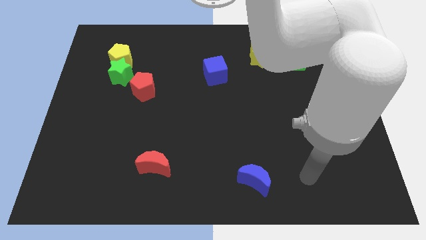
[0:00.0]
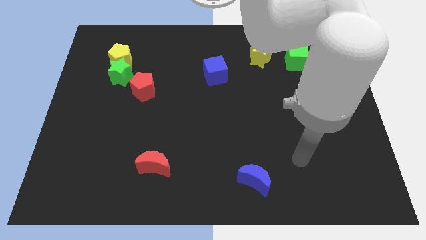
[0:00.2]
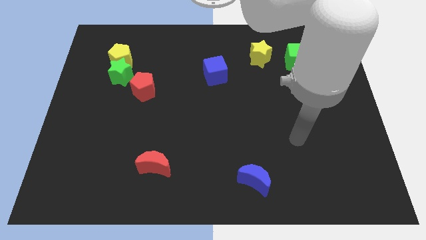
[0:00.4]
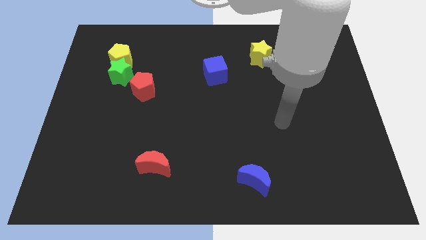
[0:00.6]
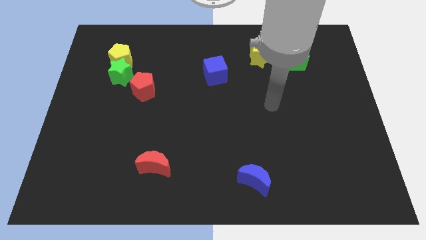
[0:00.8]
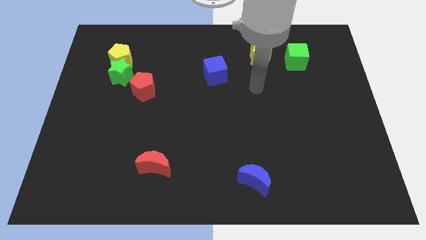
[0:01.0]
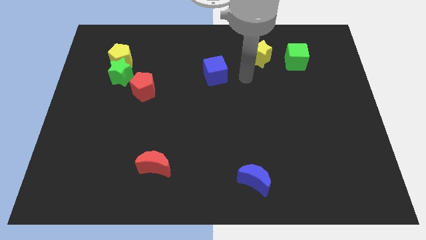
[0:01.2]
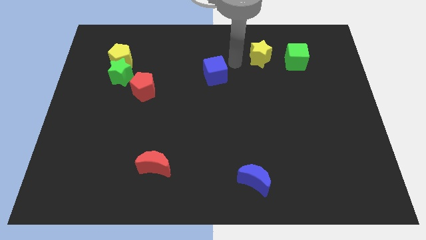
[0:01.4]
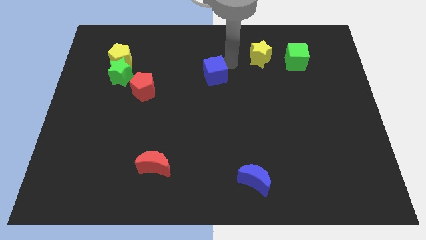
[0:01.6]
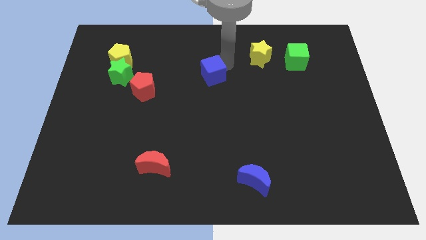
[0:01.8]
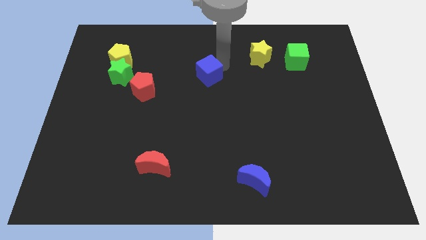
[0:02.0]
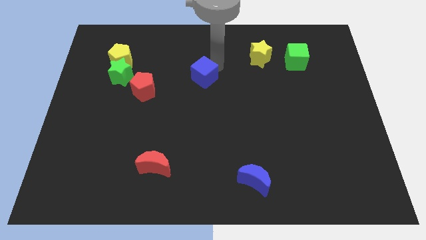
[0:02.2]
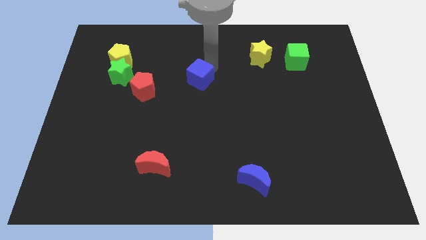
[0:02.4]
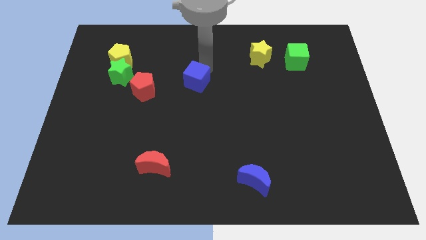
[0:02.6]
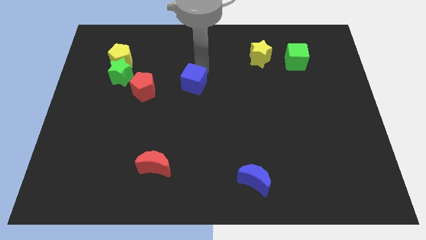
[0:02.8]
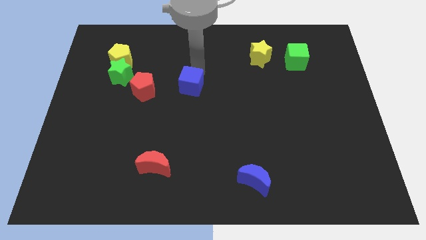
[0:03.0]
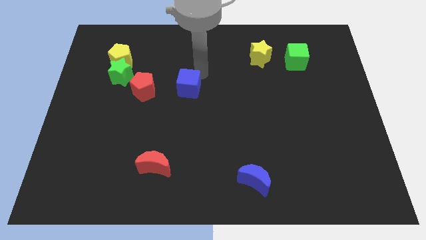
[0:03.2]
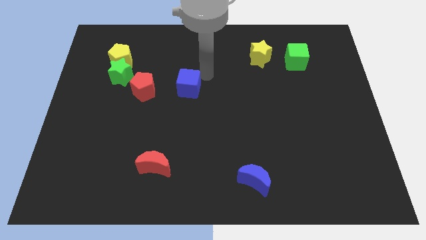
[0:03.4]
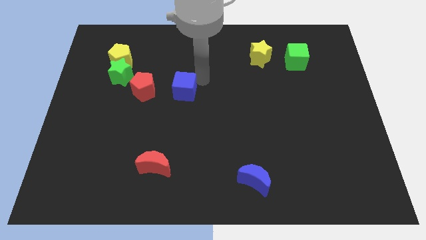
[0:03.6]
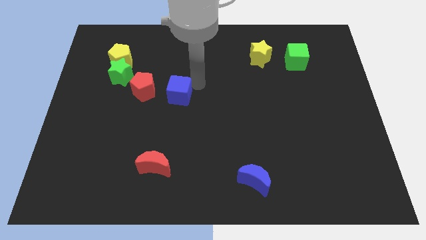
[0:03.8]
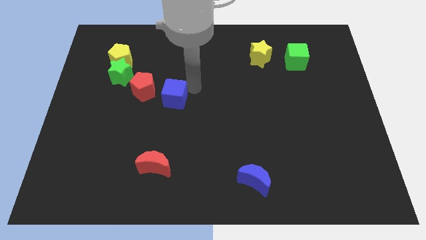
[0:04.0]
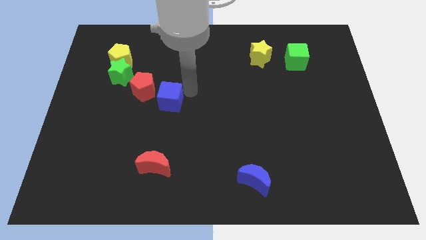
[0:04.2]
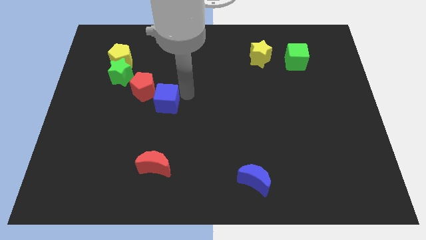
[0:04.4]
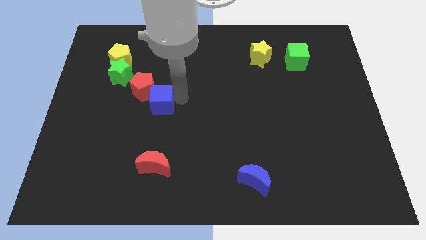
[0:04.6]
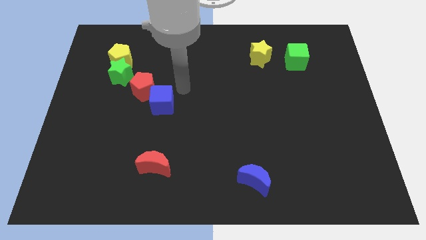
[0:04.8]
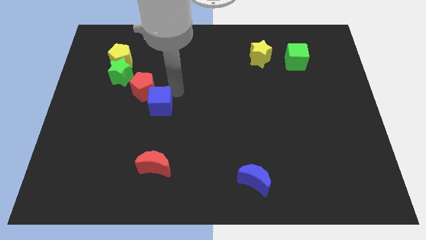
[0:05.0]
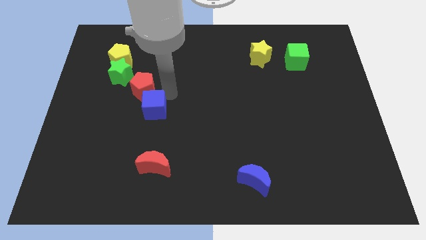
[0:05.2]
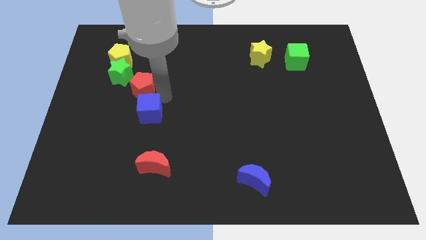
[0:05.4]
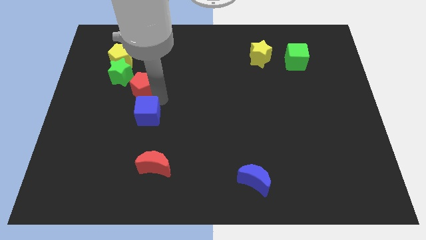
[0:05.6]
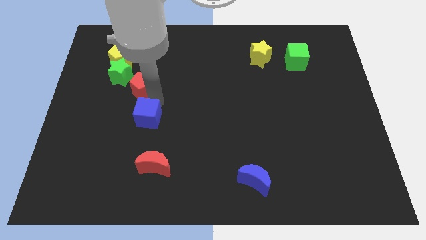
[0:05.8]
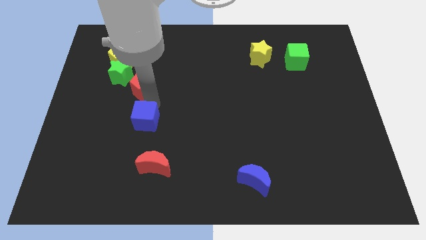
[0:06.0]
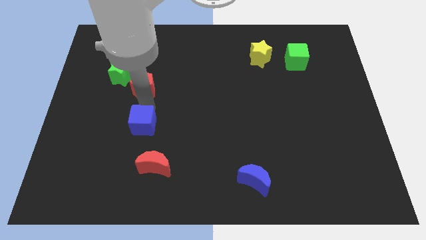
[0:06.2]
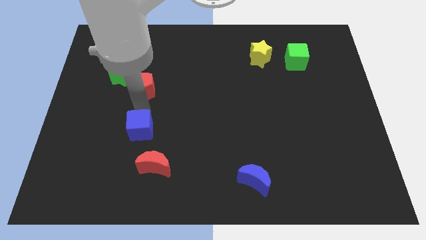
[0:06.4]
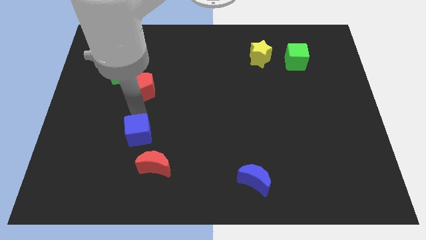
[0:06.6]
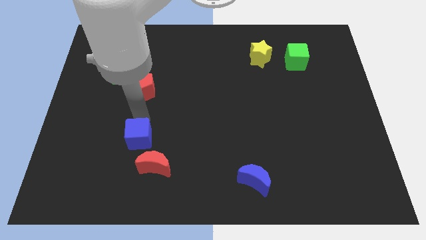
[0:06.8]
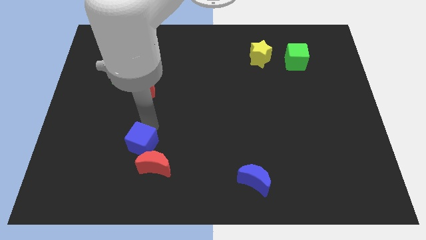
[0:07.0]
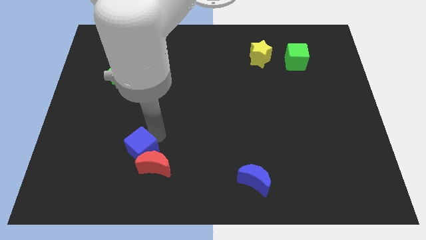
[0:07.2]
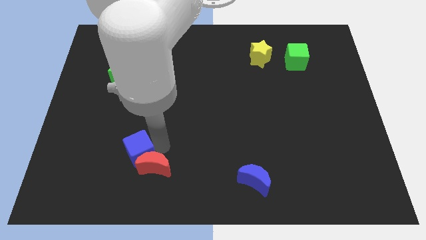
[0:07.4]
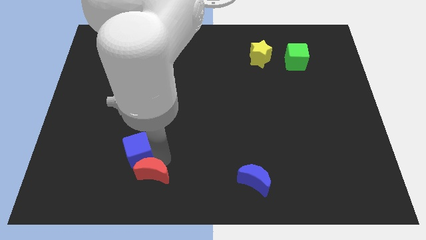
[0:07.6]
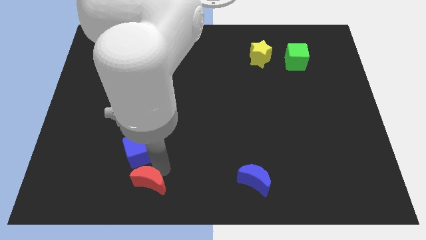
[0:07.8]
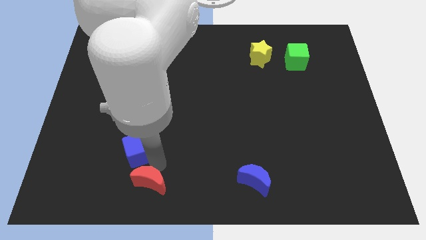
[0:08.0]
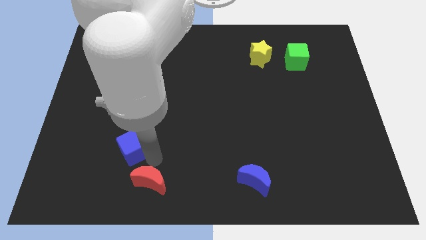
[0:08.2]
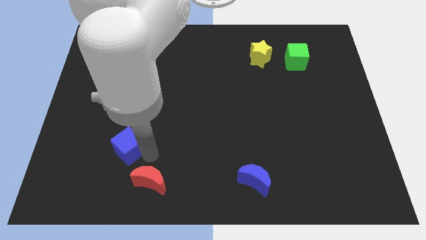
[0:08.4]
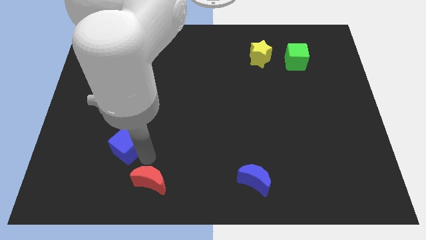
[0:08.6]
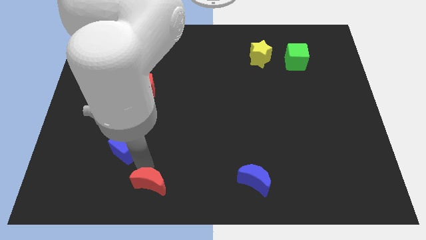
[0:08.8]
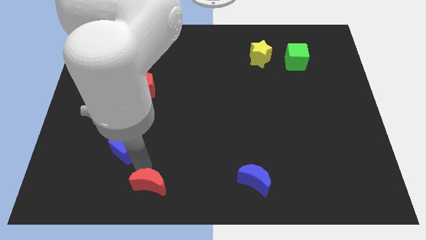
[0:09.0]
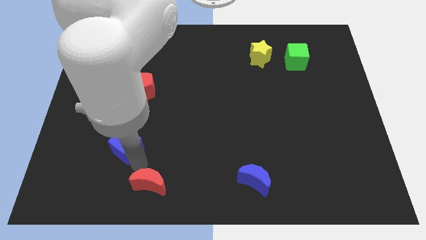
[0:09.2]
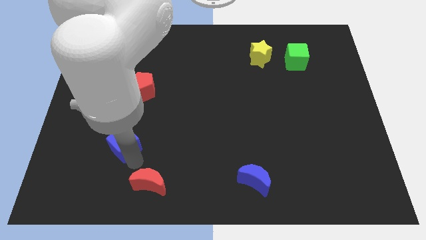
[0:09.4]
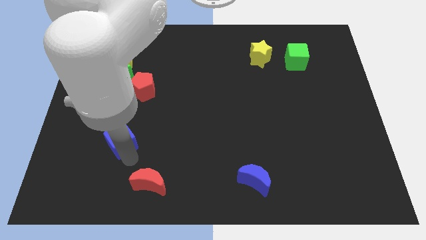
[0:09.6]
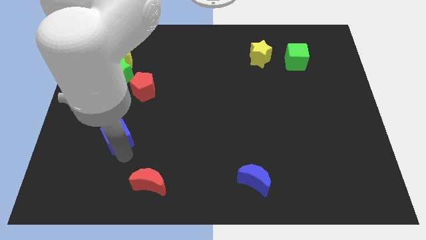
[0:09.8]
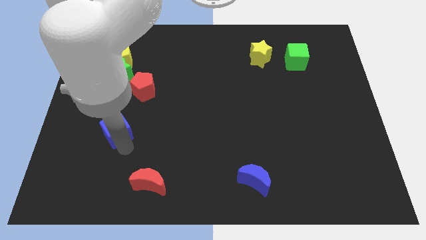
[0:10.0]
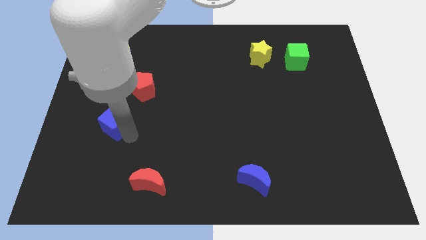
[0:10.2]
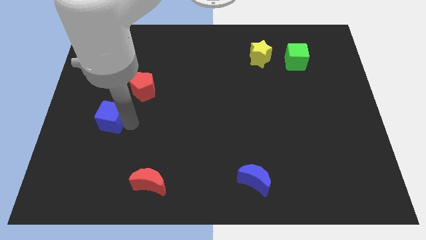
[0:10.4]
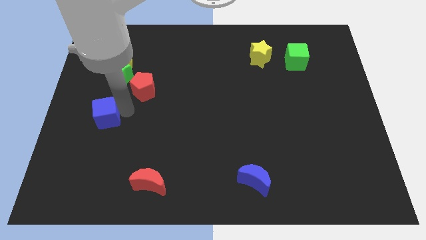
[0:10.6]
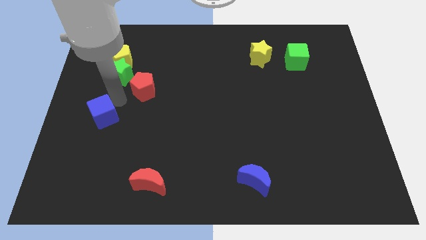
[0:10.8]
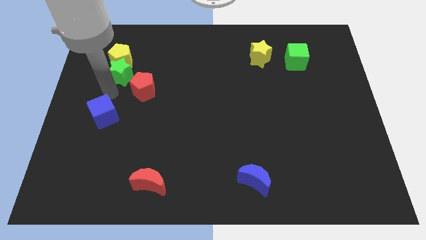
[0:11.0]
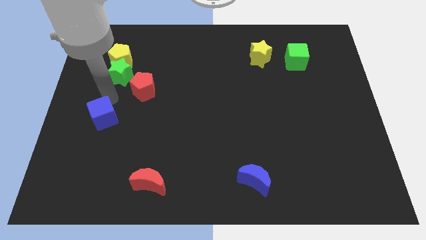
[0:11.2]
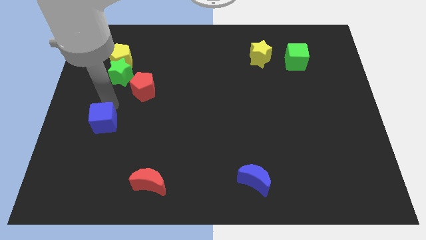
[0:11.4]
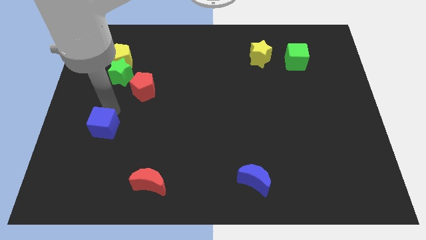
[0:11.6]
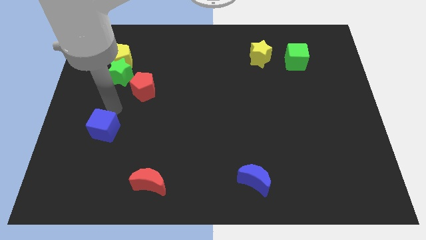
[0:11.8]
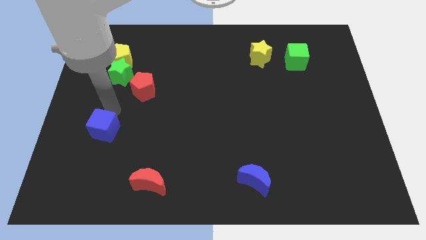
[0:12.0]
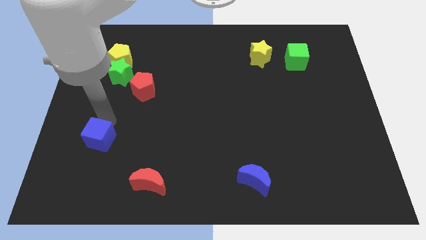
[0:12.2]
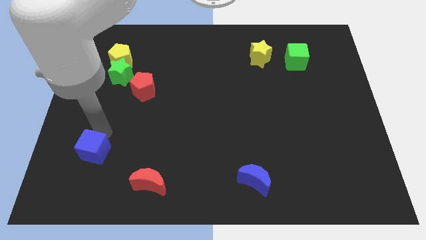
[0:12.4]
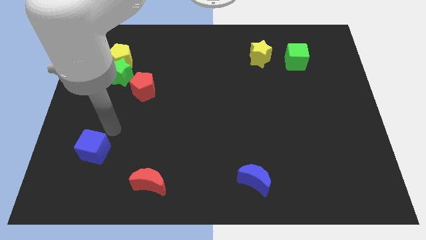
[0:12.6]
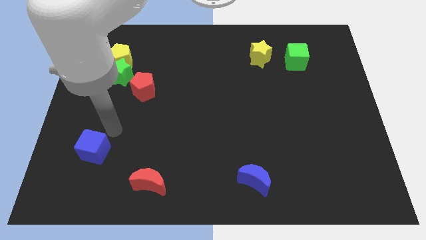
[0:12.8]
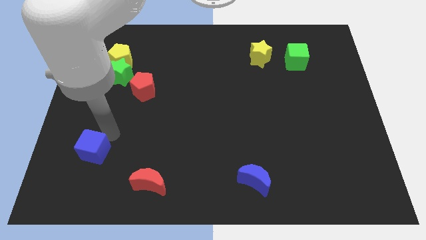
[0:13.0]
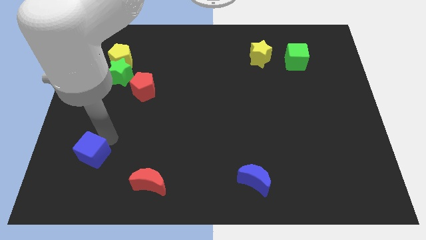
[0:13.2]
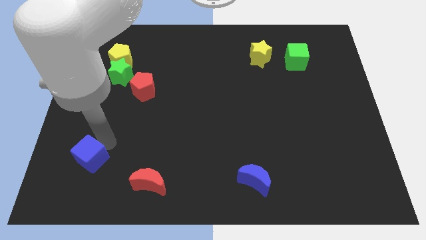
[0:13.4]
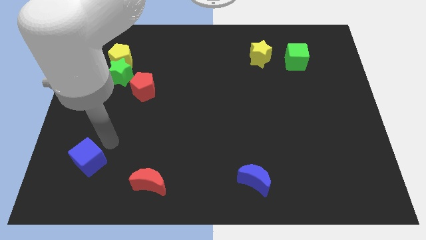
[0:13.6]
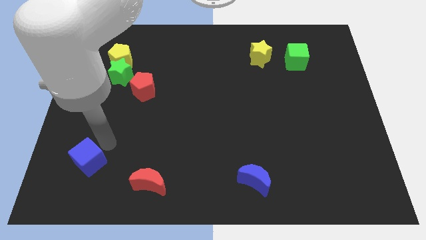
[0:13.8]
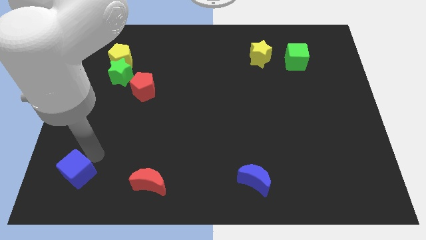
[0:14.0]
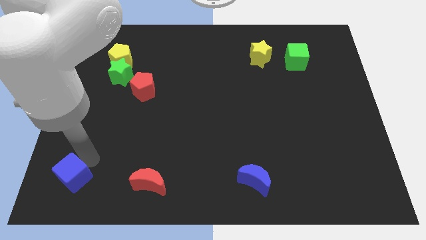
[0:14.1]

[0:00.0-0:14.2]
slide the blue cube to the bottom left corner
